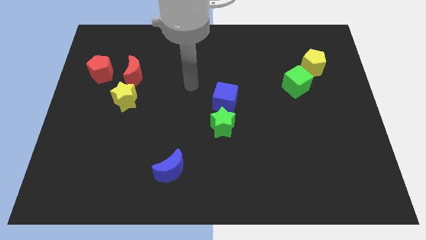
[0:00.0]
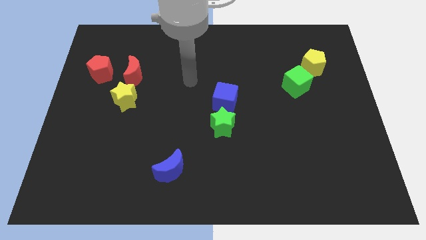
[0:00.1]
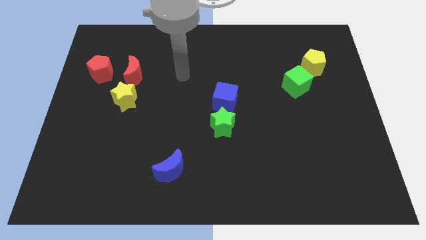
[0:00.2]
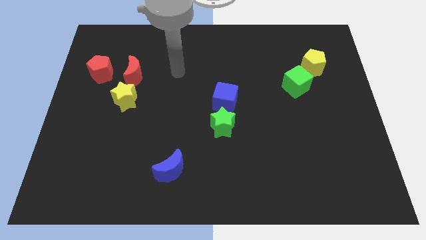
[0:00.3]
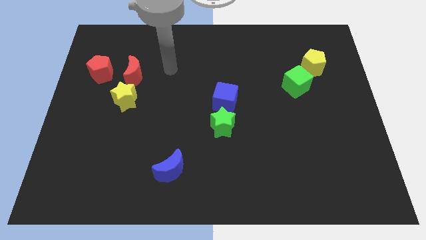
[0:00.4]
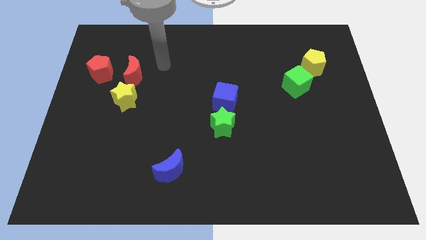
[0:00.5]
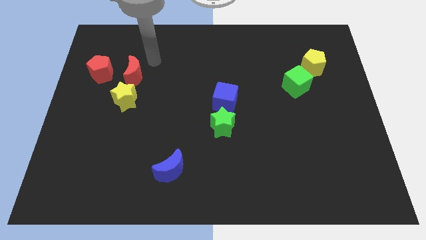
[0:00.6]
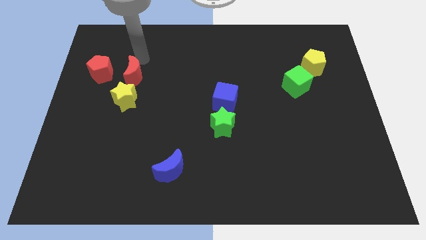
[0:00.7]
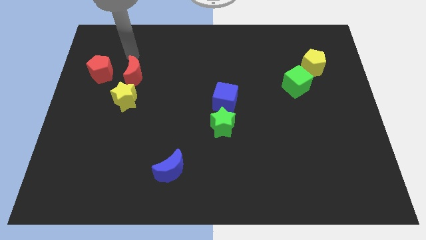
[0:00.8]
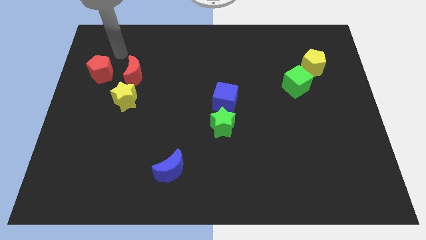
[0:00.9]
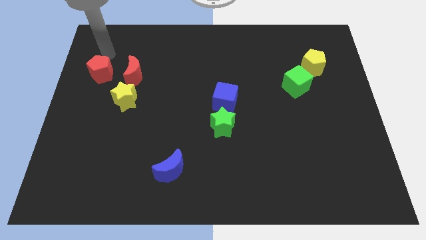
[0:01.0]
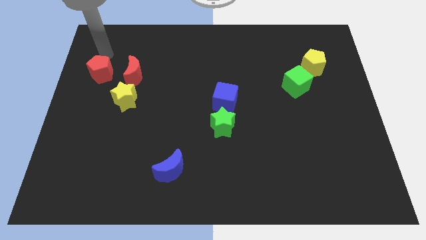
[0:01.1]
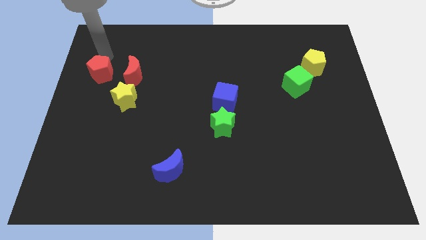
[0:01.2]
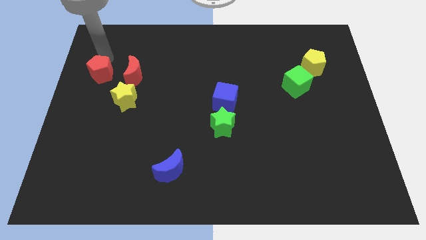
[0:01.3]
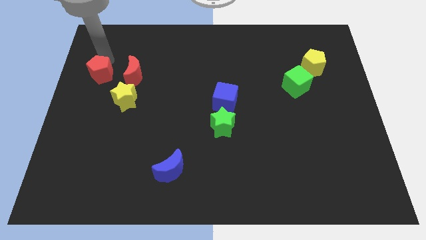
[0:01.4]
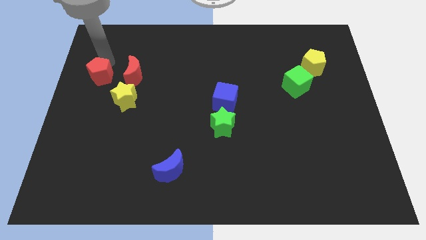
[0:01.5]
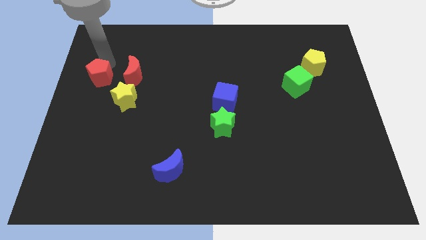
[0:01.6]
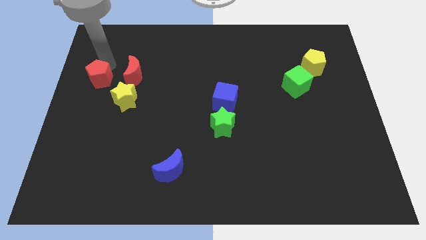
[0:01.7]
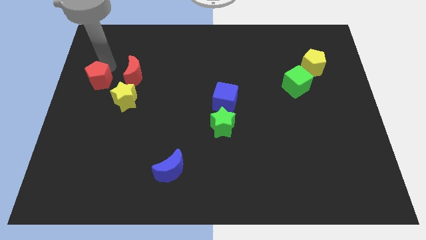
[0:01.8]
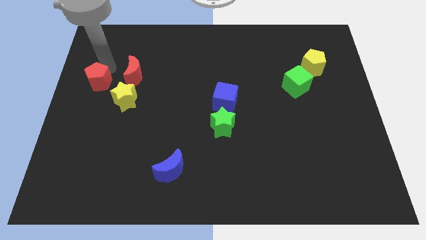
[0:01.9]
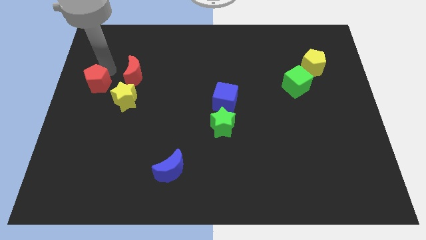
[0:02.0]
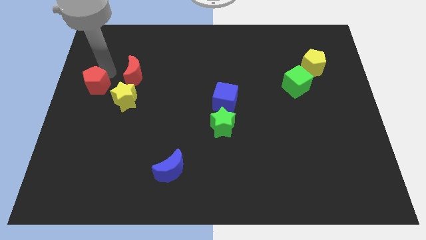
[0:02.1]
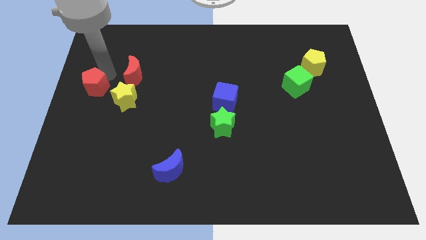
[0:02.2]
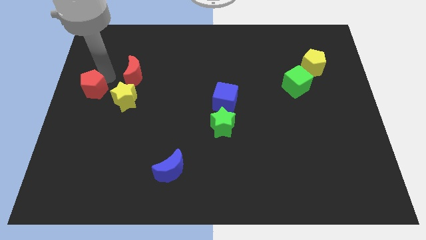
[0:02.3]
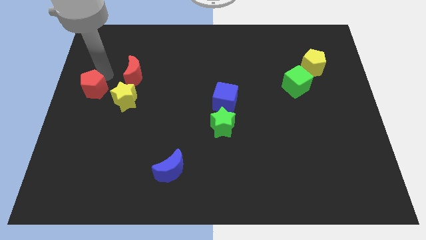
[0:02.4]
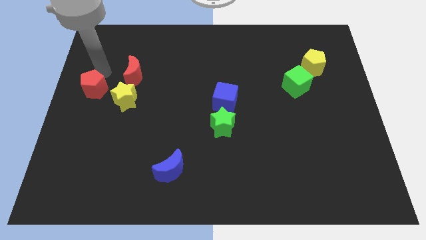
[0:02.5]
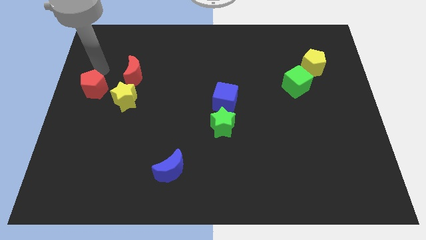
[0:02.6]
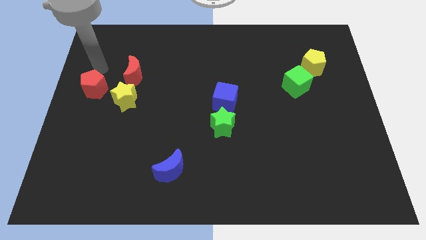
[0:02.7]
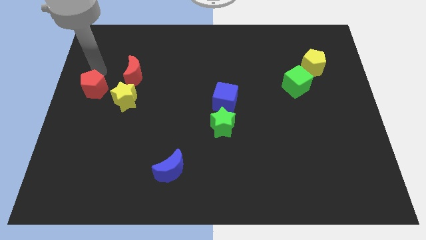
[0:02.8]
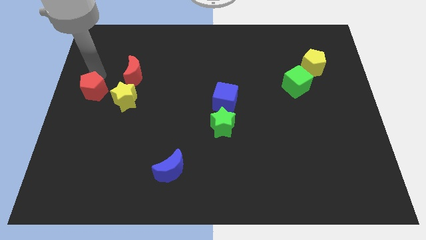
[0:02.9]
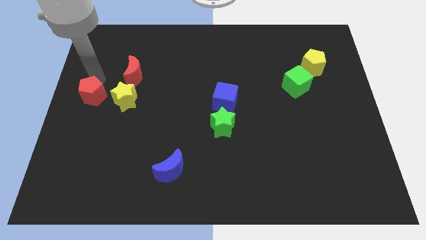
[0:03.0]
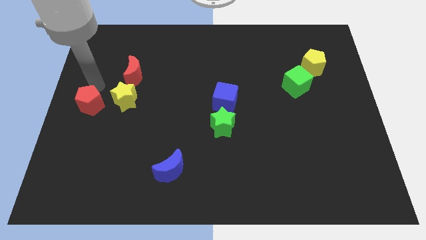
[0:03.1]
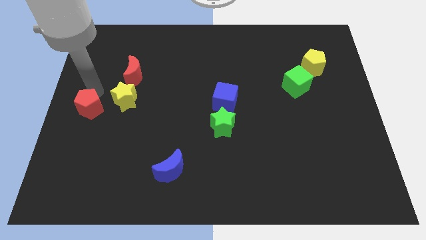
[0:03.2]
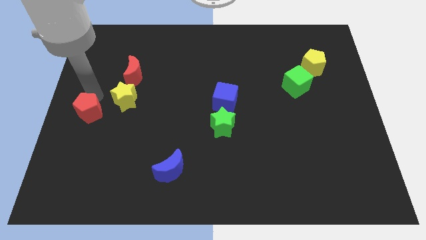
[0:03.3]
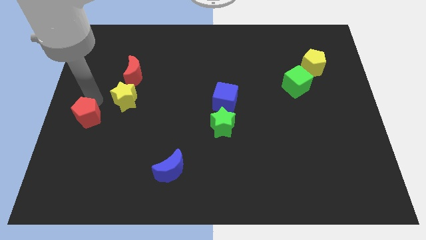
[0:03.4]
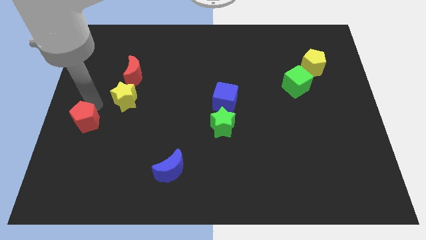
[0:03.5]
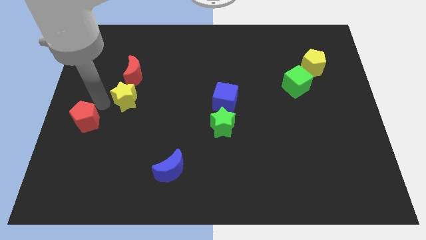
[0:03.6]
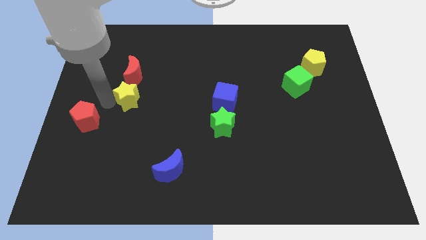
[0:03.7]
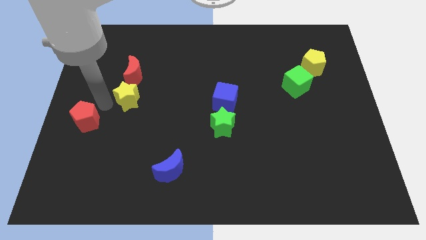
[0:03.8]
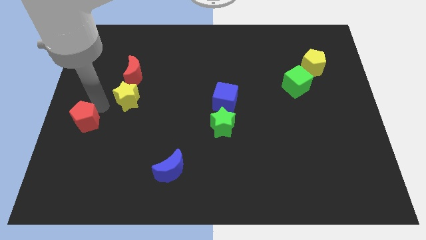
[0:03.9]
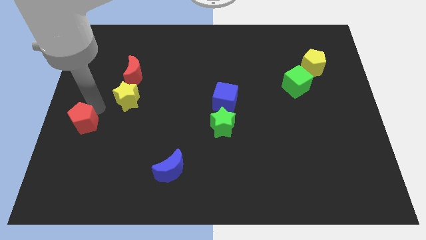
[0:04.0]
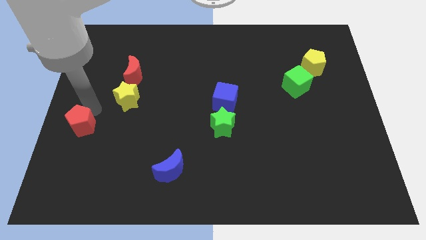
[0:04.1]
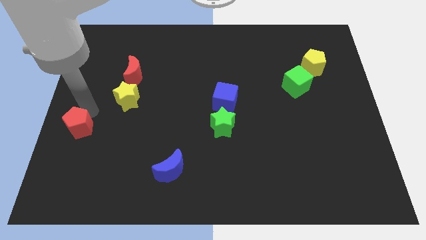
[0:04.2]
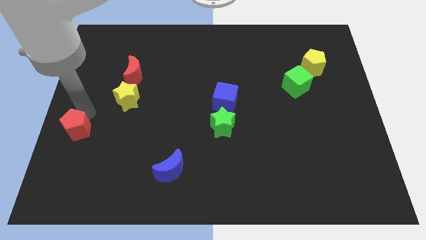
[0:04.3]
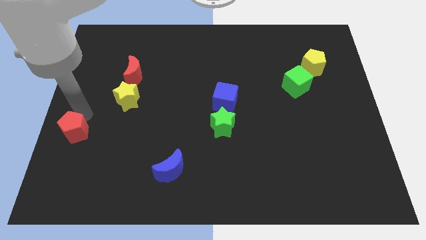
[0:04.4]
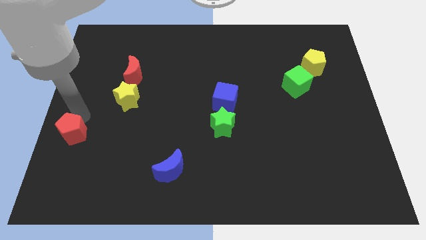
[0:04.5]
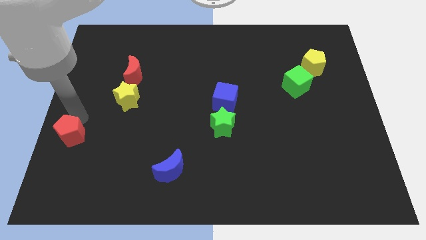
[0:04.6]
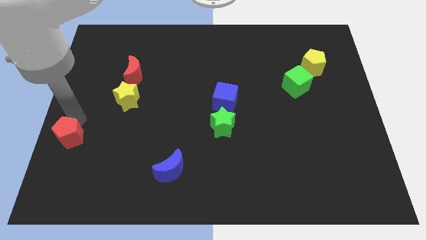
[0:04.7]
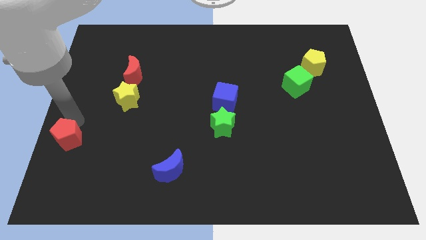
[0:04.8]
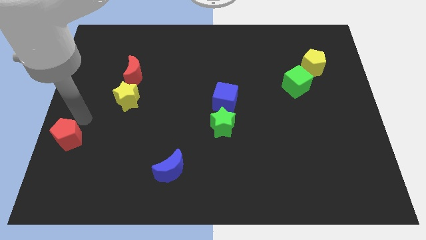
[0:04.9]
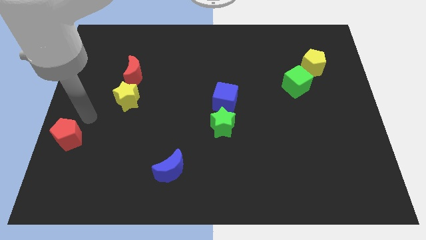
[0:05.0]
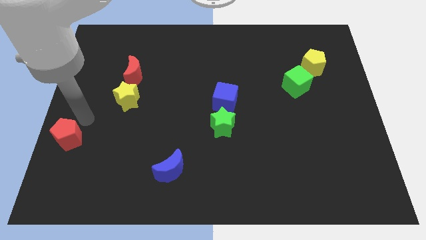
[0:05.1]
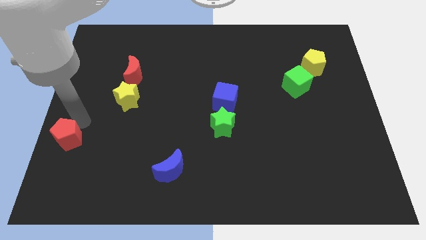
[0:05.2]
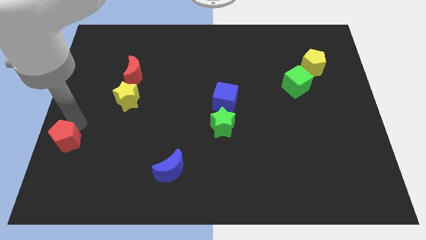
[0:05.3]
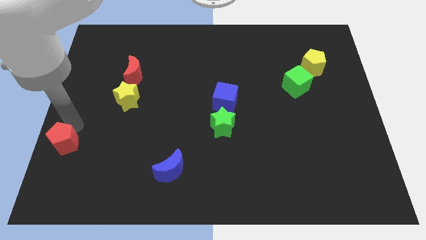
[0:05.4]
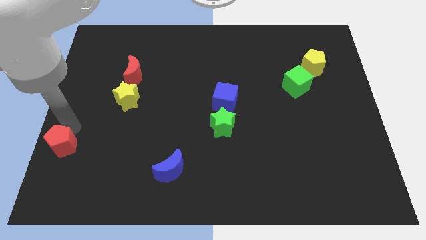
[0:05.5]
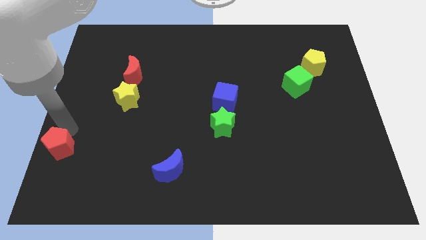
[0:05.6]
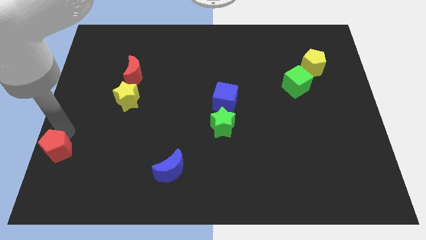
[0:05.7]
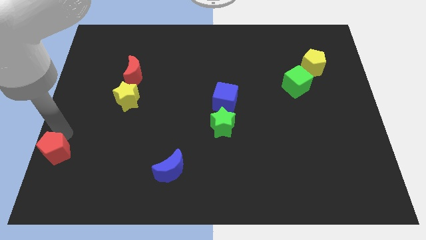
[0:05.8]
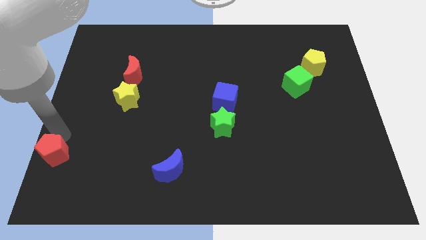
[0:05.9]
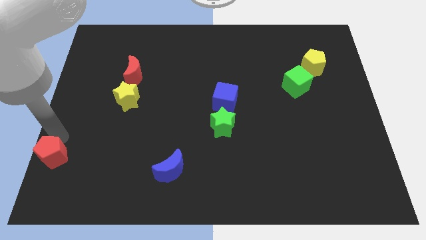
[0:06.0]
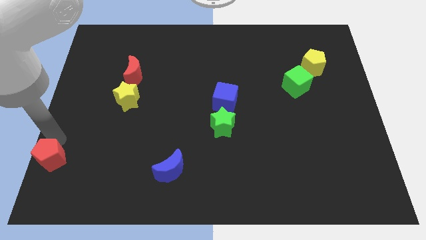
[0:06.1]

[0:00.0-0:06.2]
slide the red pentagon to the bottom left of the board
